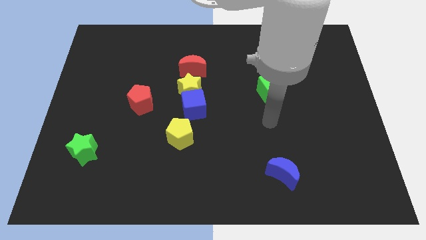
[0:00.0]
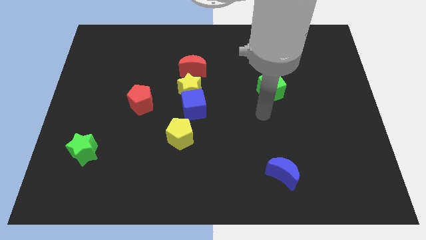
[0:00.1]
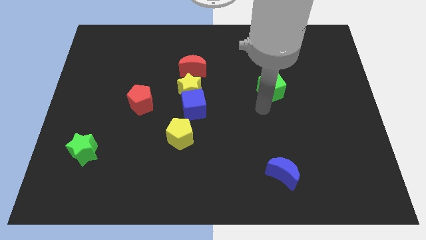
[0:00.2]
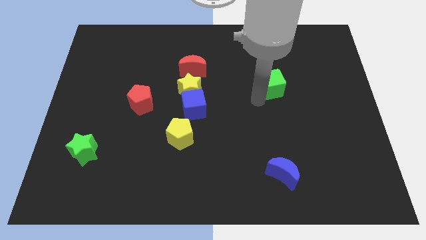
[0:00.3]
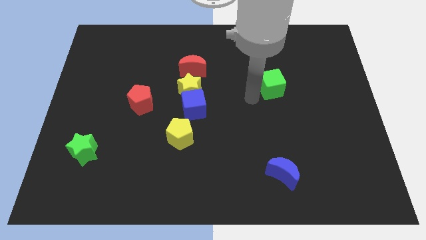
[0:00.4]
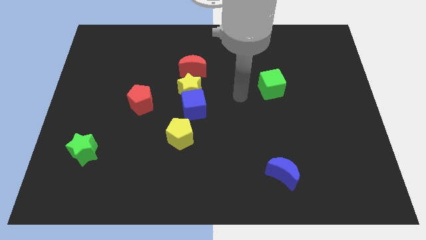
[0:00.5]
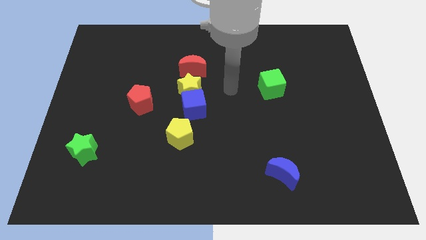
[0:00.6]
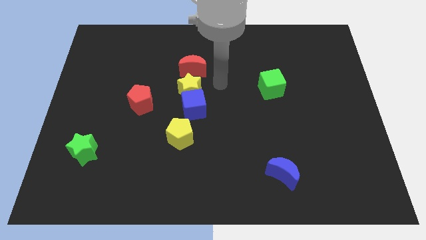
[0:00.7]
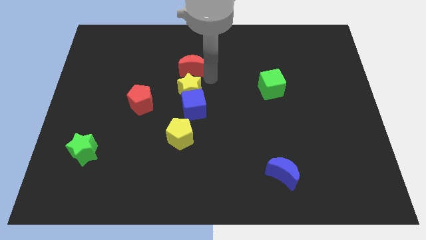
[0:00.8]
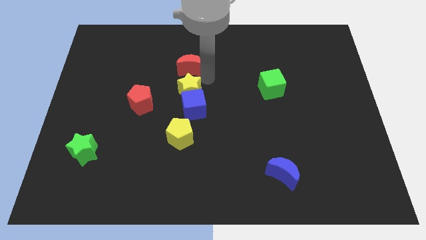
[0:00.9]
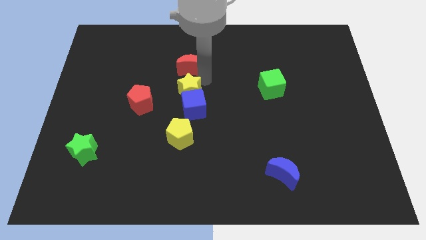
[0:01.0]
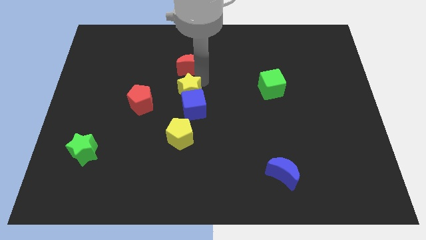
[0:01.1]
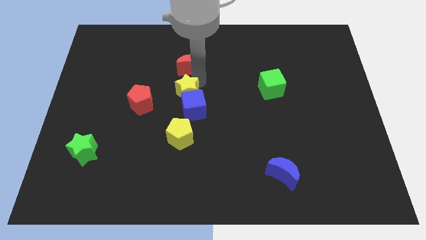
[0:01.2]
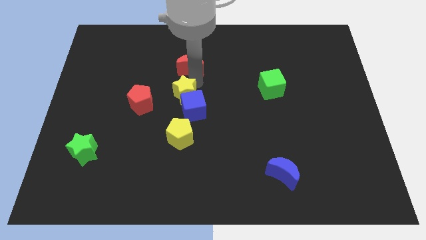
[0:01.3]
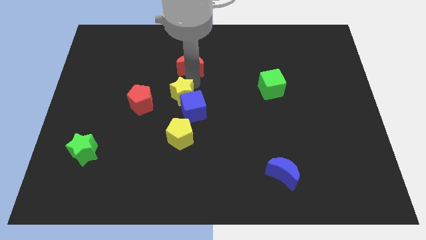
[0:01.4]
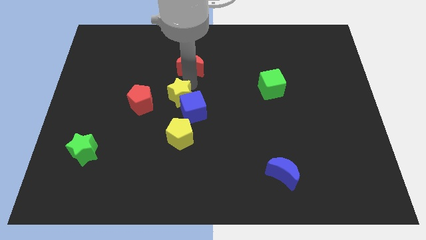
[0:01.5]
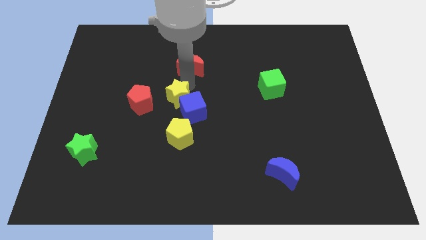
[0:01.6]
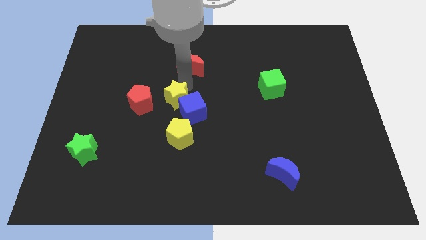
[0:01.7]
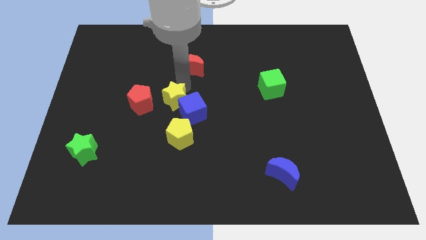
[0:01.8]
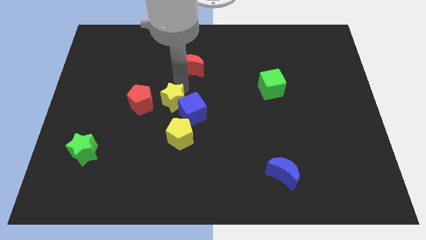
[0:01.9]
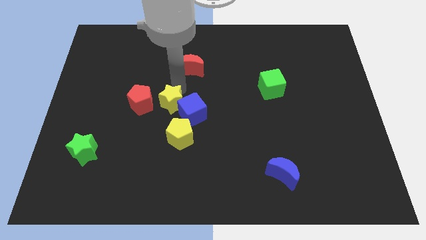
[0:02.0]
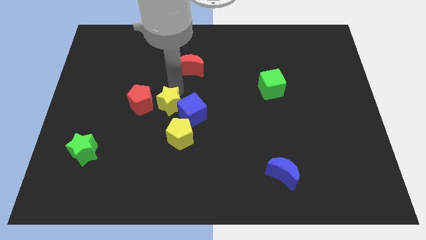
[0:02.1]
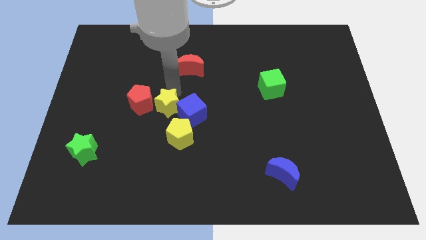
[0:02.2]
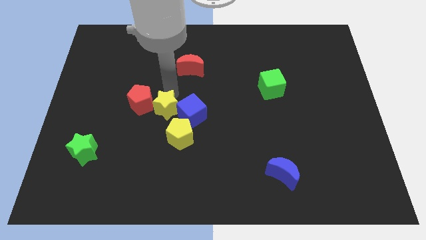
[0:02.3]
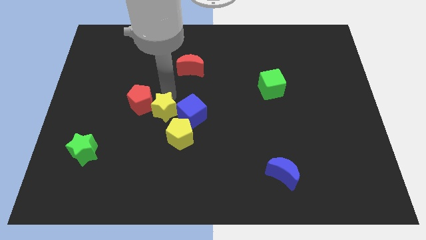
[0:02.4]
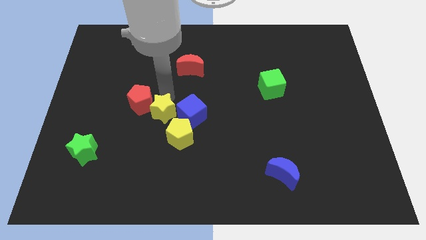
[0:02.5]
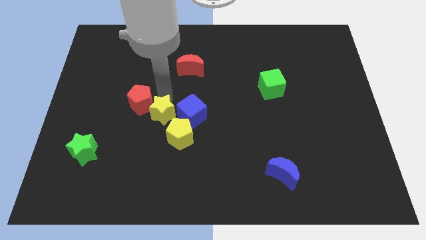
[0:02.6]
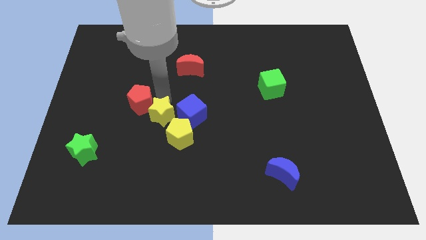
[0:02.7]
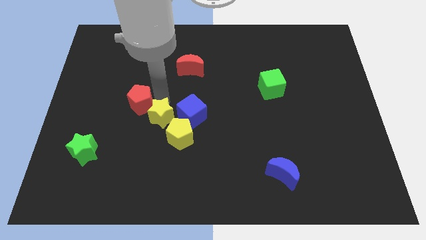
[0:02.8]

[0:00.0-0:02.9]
pull the yellow star apart from the blue cube and red moon

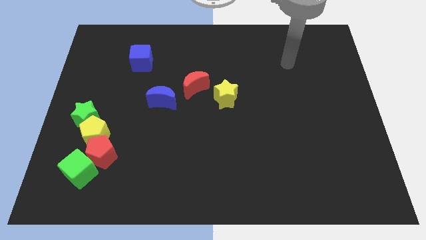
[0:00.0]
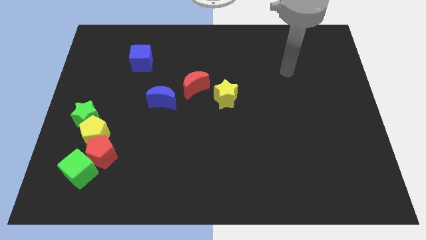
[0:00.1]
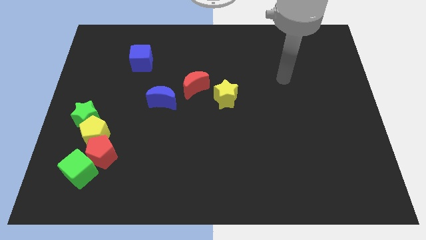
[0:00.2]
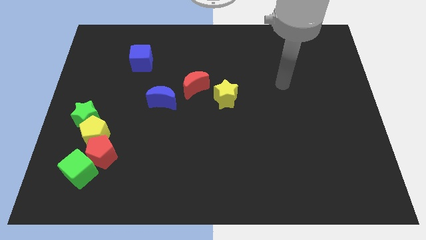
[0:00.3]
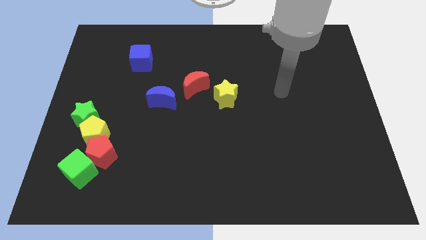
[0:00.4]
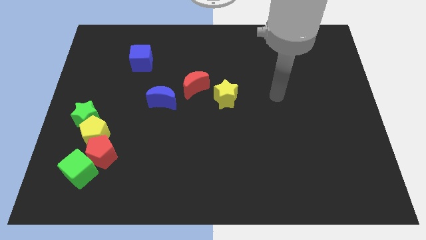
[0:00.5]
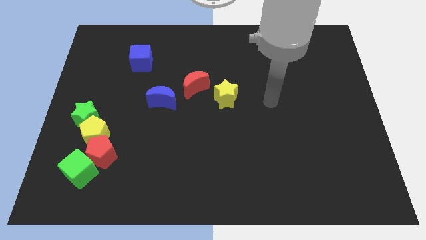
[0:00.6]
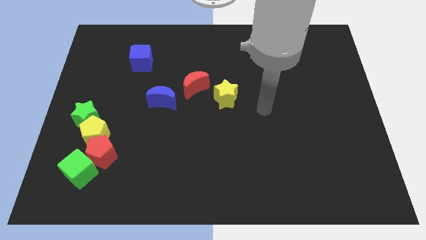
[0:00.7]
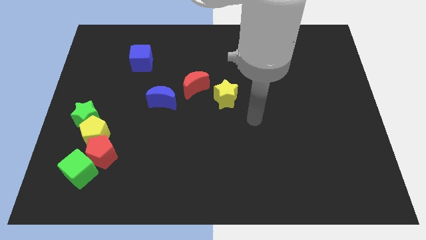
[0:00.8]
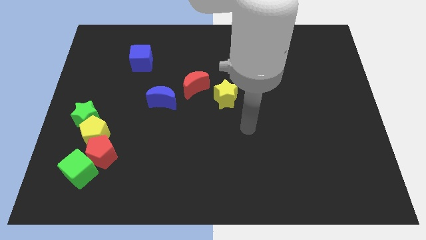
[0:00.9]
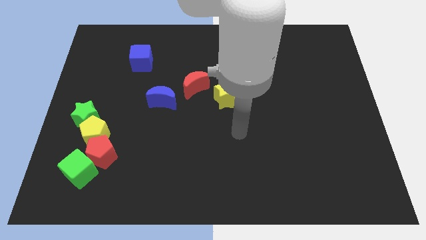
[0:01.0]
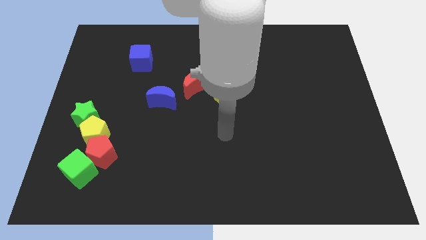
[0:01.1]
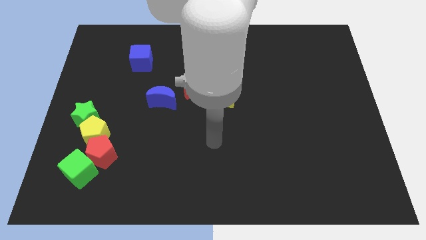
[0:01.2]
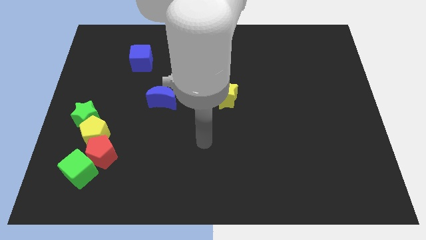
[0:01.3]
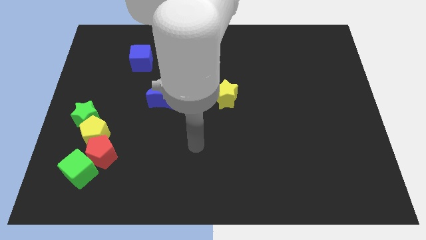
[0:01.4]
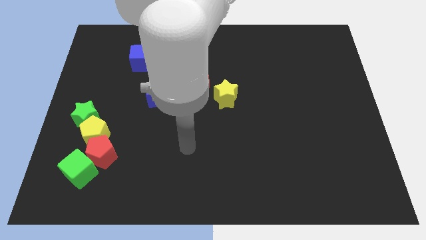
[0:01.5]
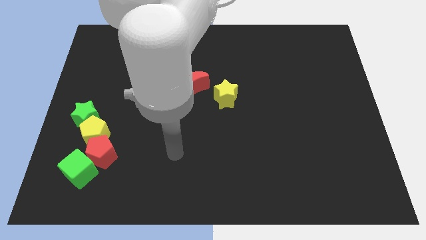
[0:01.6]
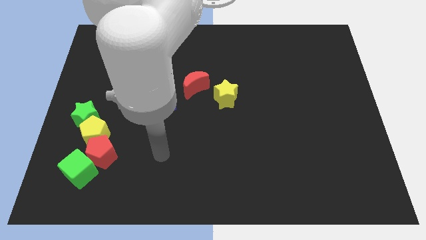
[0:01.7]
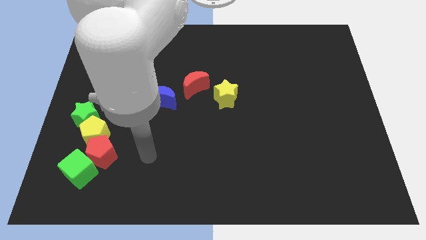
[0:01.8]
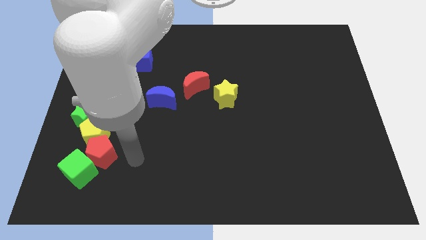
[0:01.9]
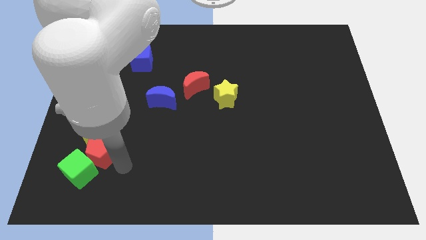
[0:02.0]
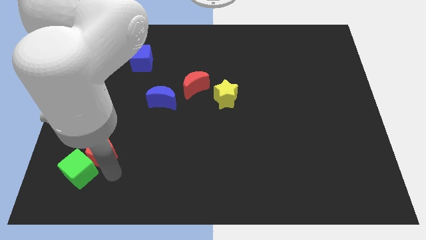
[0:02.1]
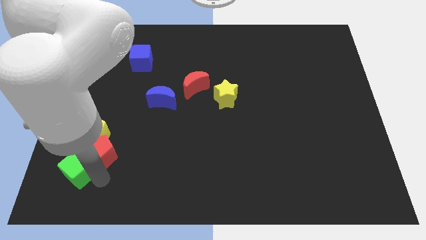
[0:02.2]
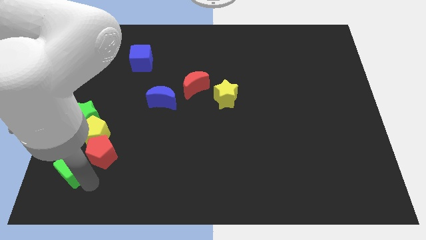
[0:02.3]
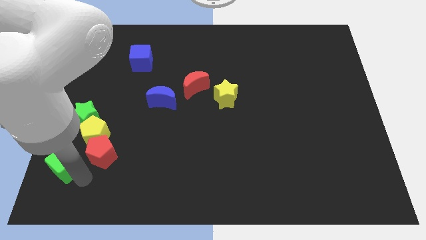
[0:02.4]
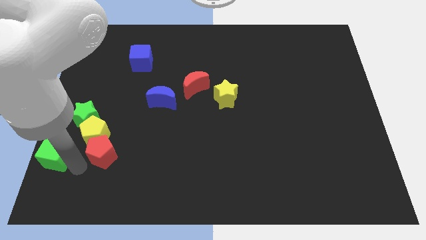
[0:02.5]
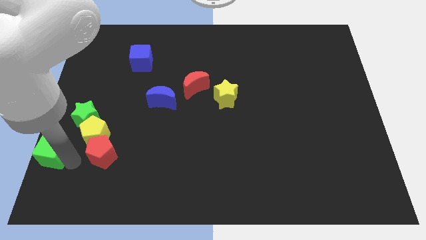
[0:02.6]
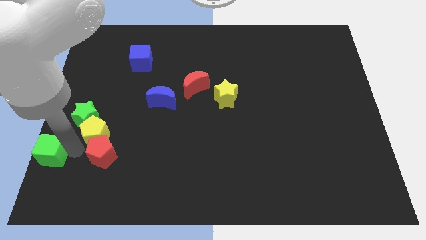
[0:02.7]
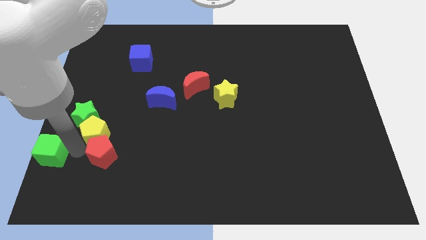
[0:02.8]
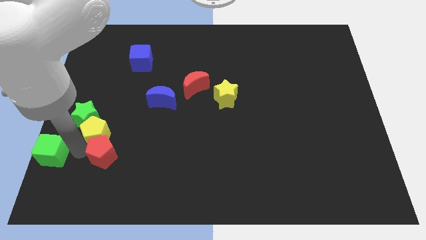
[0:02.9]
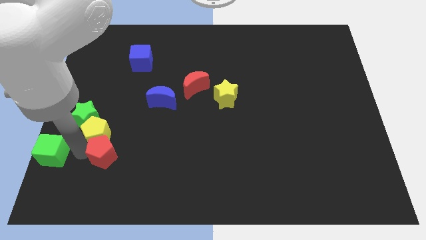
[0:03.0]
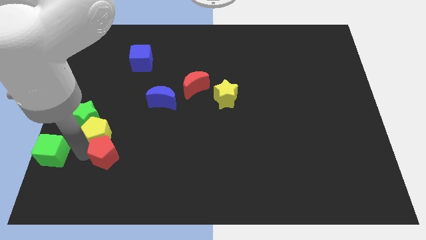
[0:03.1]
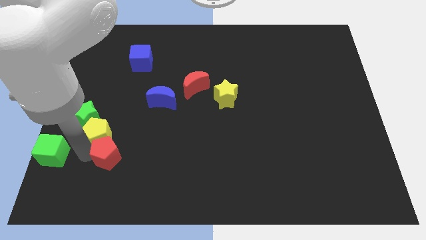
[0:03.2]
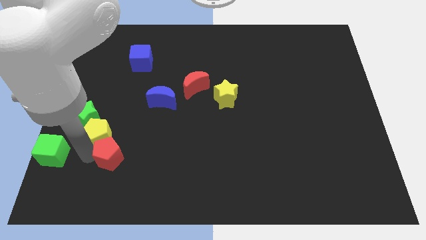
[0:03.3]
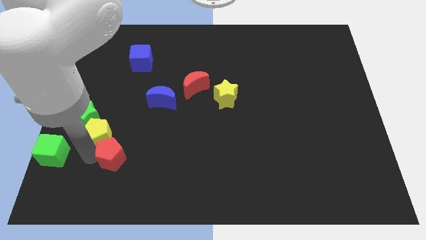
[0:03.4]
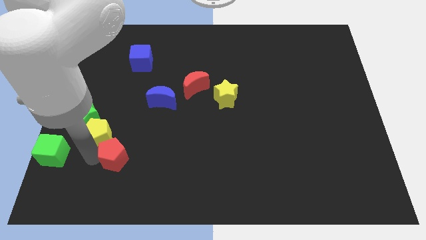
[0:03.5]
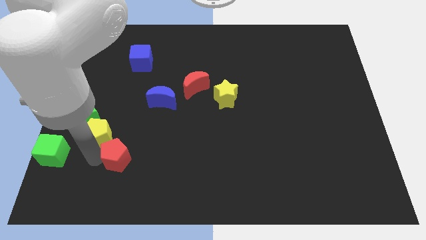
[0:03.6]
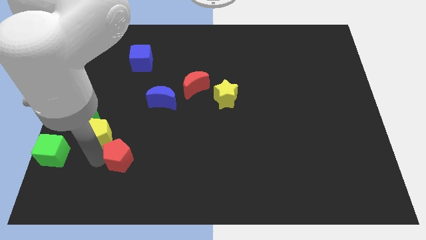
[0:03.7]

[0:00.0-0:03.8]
separate the red pentagon from the yellow pentagon and green cube

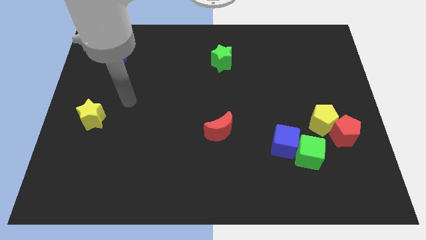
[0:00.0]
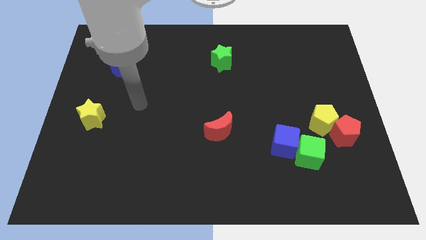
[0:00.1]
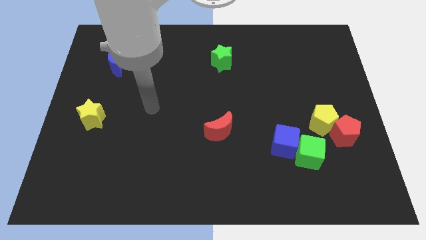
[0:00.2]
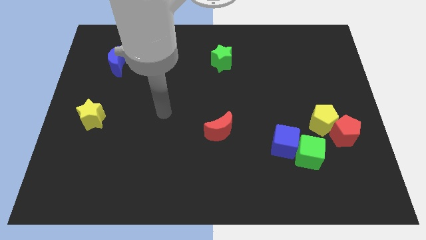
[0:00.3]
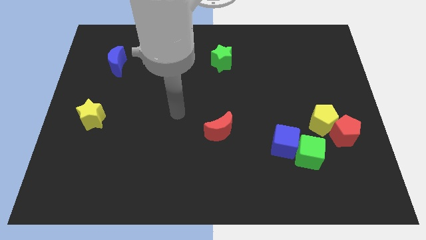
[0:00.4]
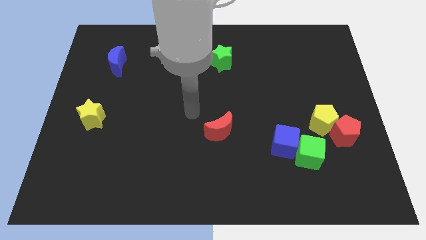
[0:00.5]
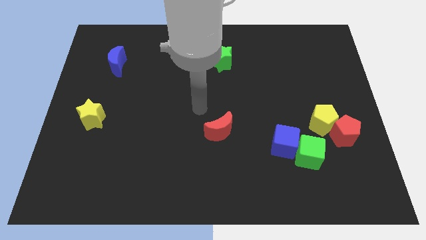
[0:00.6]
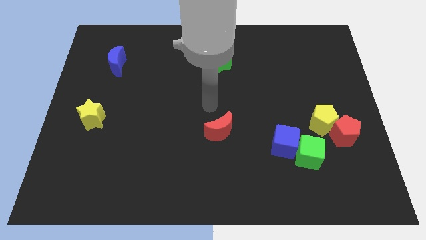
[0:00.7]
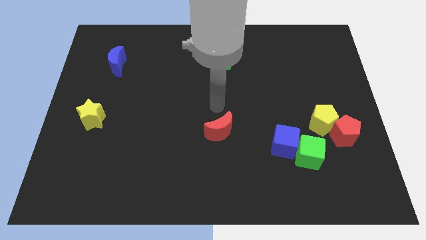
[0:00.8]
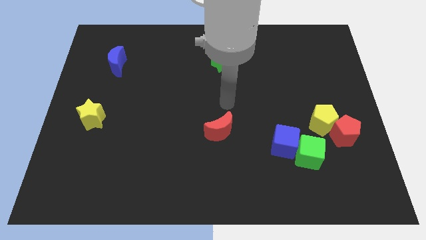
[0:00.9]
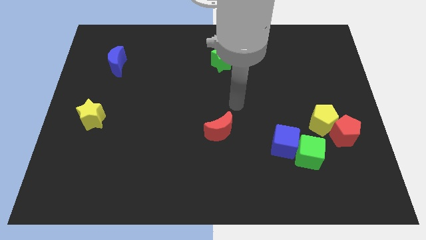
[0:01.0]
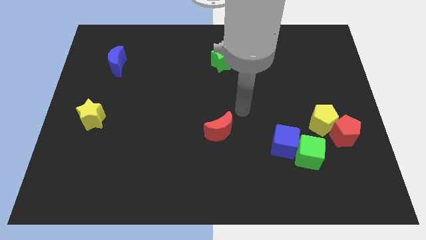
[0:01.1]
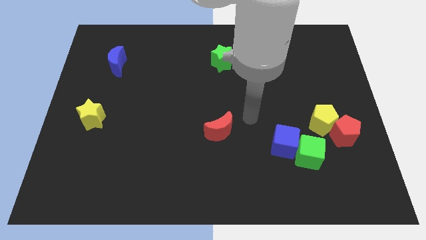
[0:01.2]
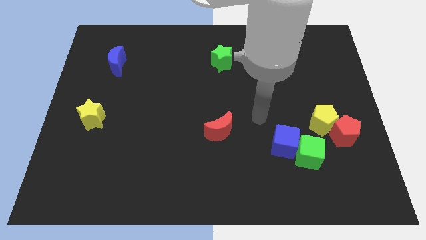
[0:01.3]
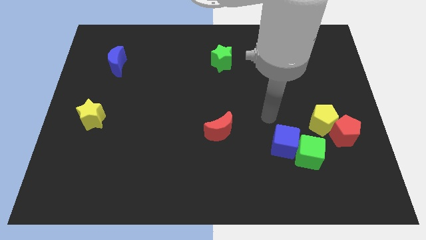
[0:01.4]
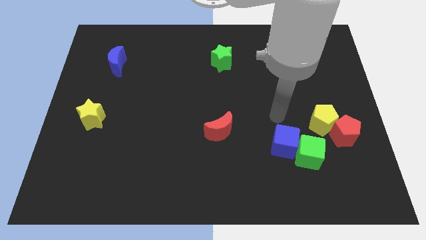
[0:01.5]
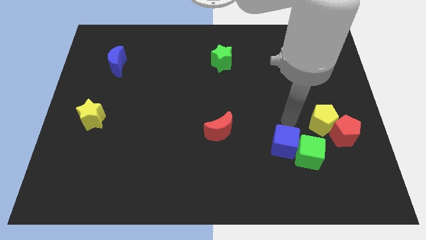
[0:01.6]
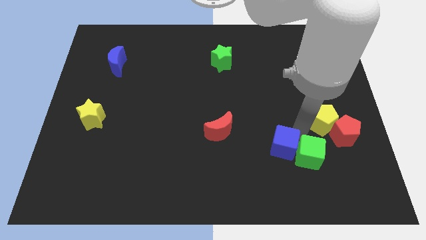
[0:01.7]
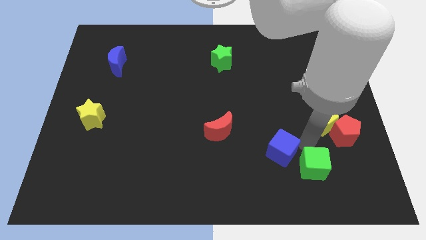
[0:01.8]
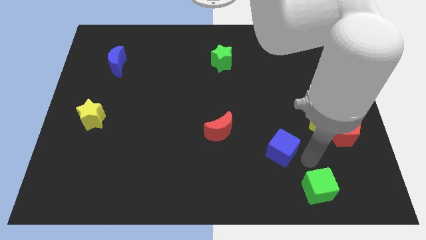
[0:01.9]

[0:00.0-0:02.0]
separate the blue cube from the green cube

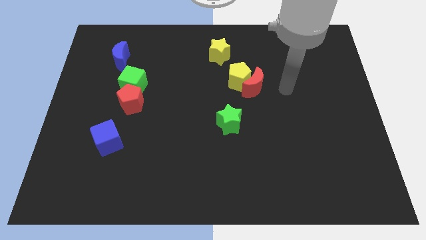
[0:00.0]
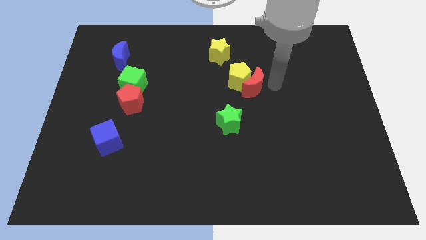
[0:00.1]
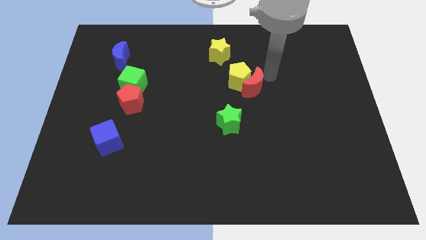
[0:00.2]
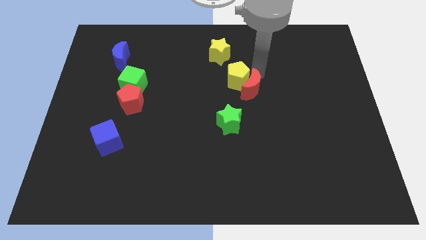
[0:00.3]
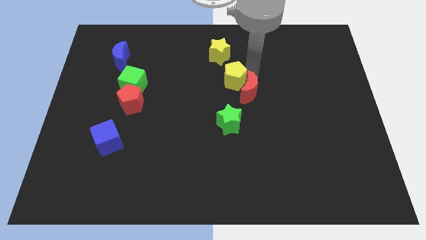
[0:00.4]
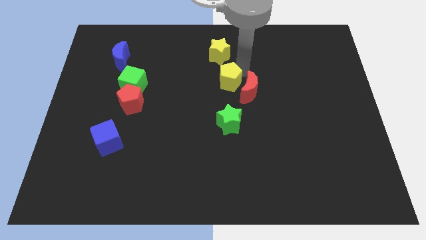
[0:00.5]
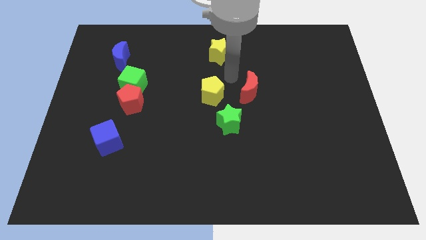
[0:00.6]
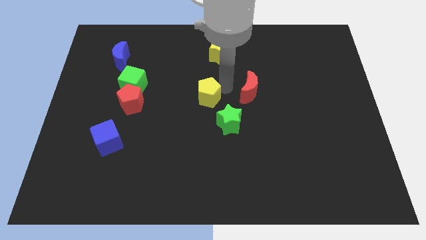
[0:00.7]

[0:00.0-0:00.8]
separate the red moon from the yellow pentagon
